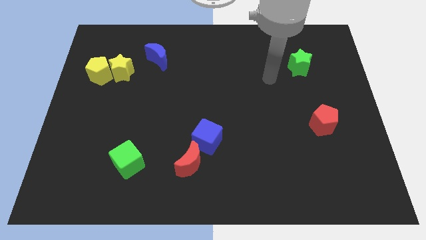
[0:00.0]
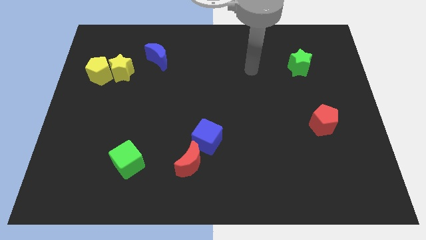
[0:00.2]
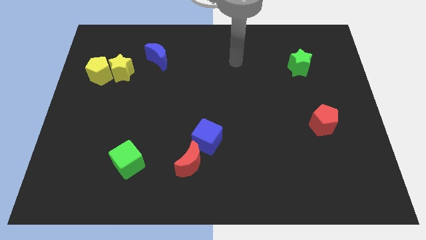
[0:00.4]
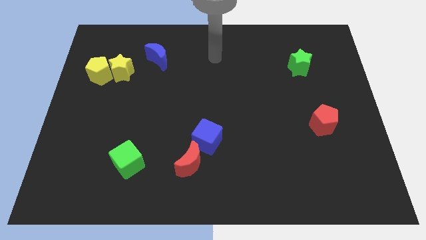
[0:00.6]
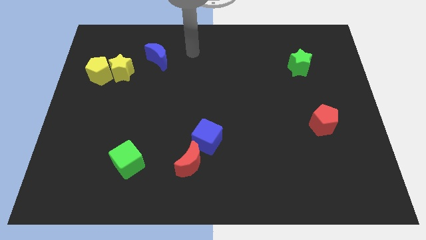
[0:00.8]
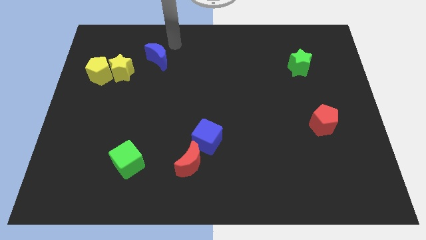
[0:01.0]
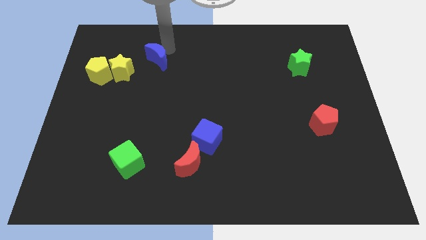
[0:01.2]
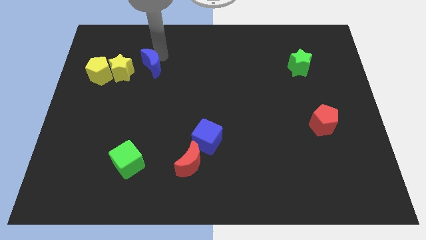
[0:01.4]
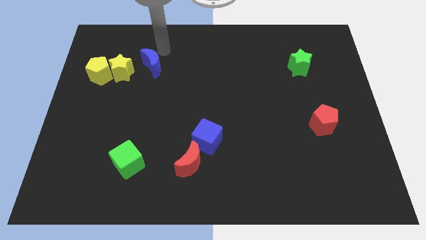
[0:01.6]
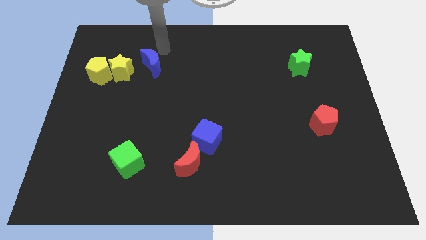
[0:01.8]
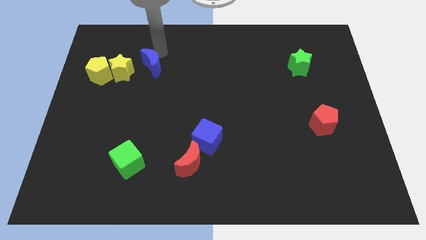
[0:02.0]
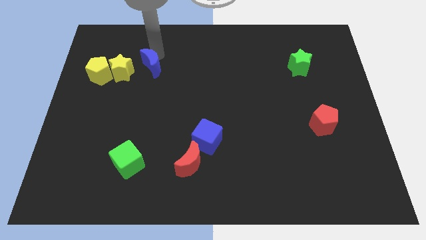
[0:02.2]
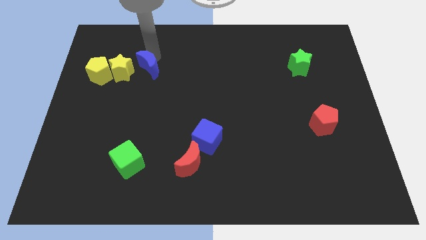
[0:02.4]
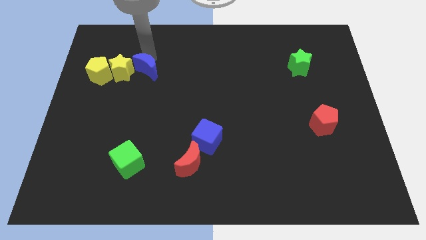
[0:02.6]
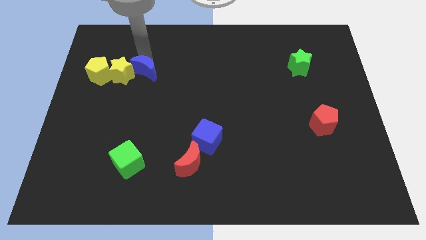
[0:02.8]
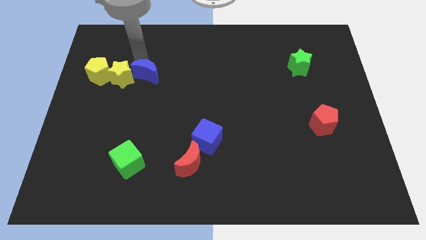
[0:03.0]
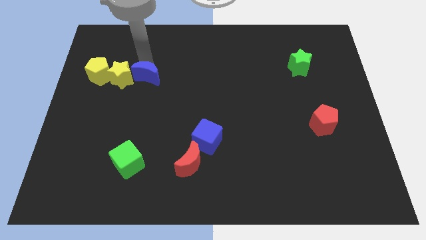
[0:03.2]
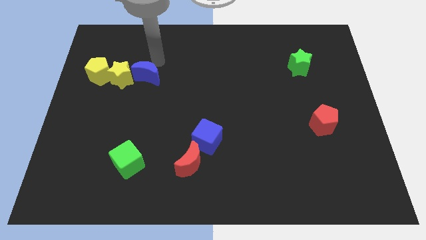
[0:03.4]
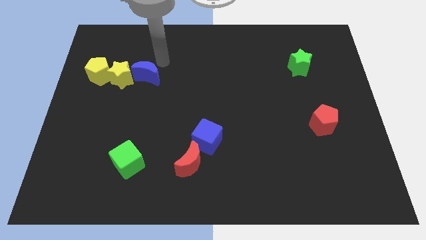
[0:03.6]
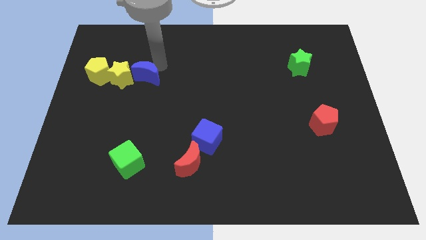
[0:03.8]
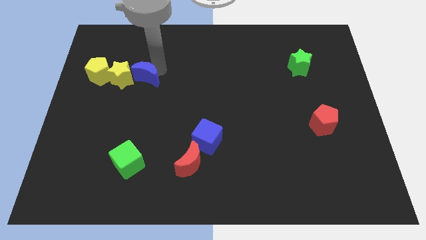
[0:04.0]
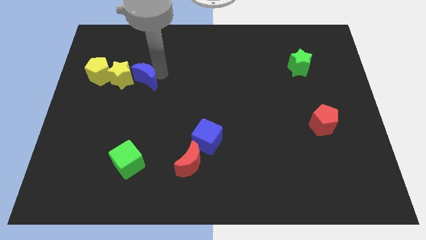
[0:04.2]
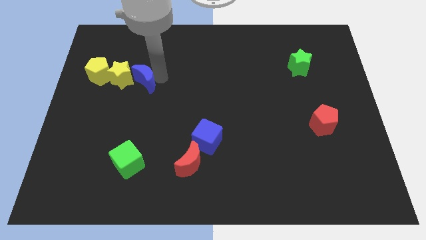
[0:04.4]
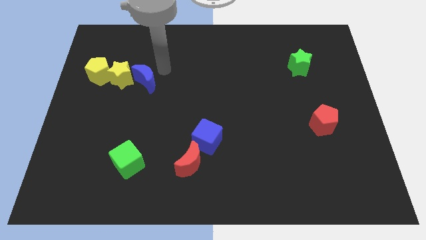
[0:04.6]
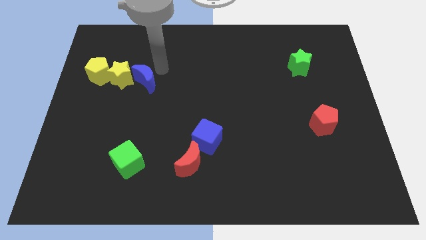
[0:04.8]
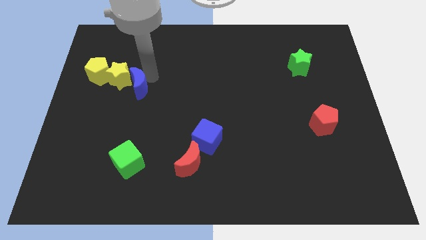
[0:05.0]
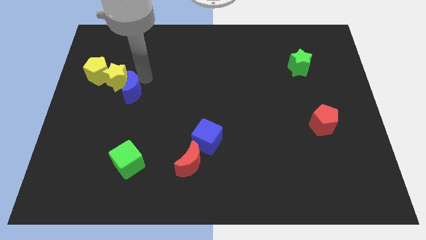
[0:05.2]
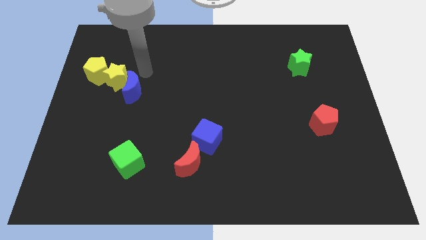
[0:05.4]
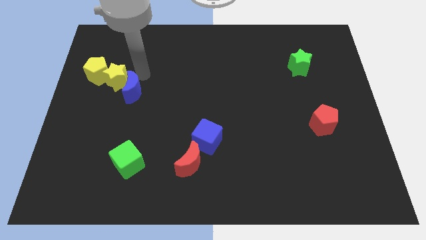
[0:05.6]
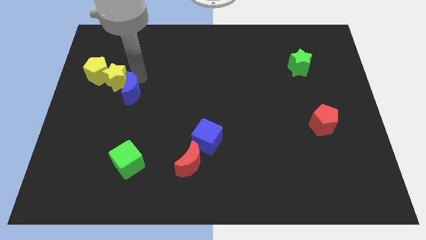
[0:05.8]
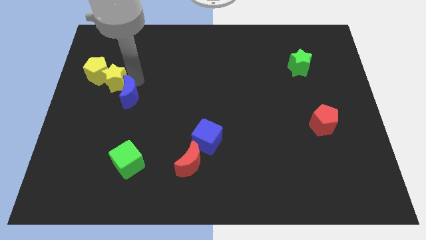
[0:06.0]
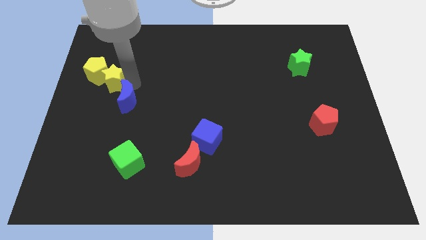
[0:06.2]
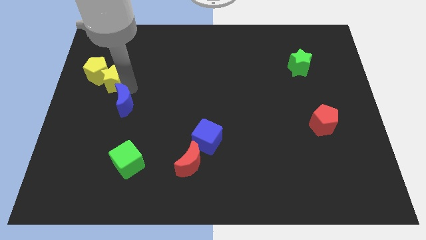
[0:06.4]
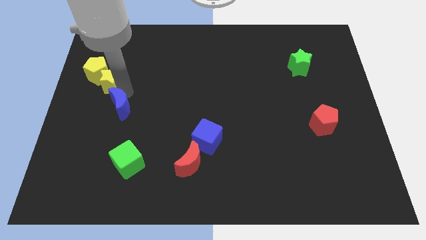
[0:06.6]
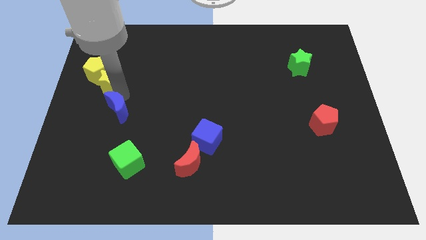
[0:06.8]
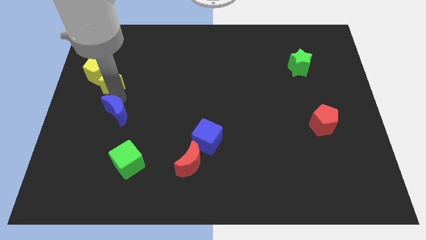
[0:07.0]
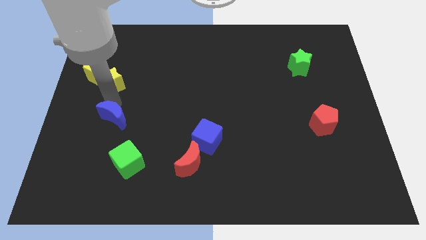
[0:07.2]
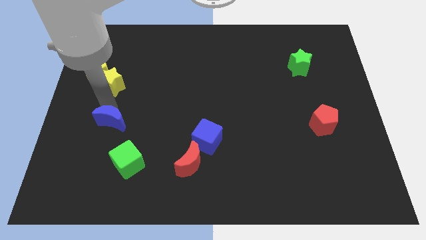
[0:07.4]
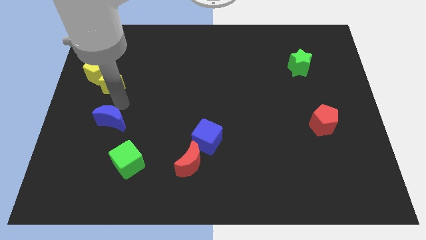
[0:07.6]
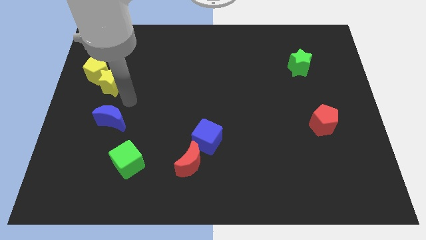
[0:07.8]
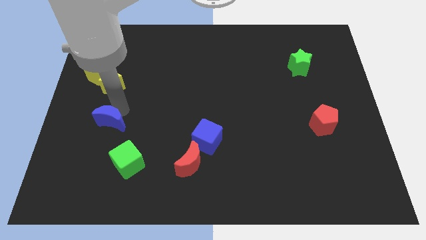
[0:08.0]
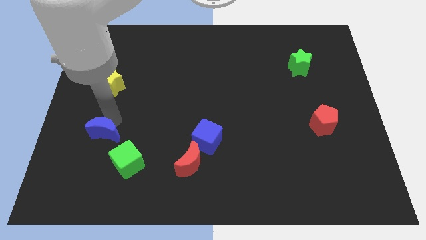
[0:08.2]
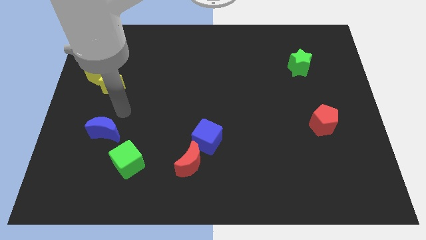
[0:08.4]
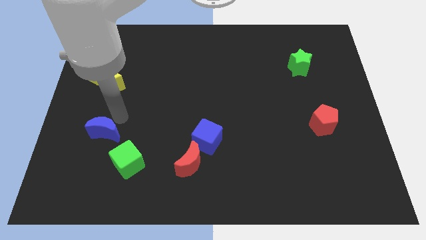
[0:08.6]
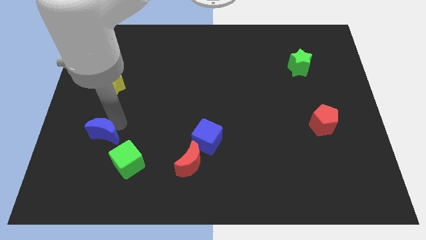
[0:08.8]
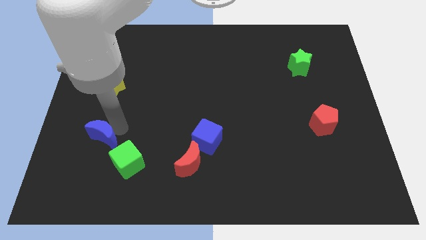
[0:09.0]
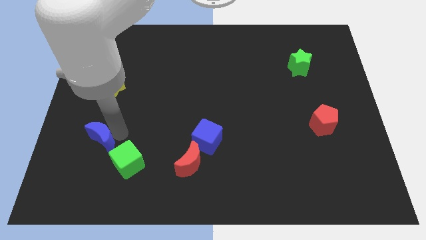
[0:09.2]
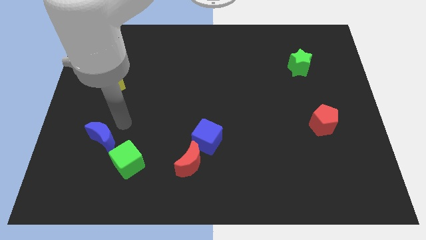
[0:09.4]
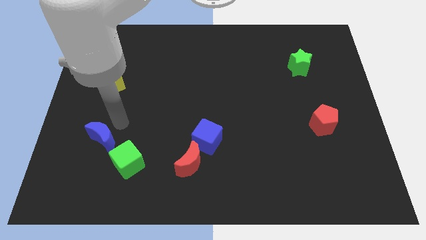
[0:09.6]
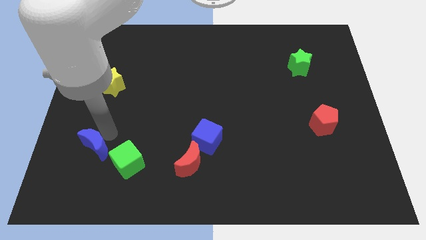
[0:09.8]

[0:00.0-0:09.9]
move the blue moon just left of the green cube

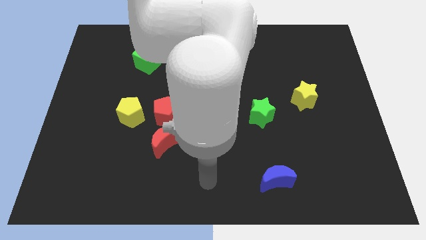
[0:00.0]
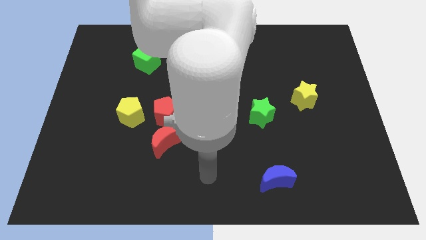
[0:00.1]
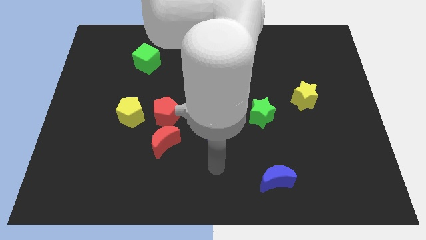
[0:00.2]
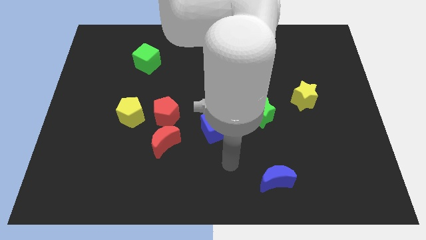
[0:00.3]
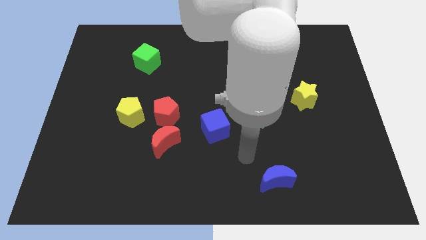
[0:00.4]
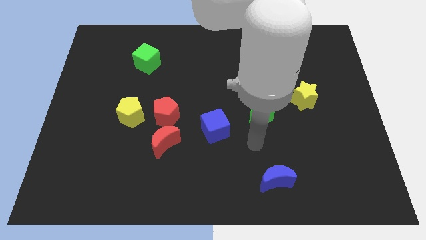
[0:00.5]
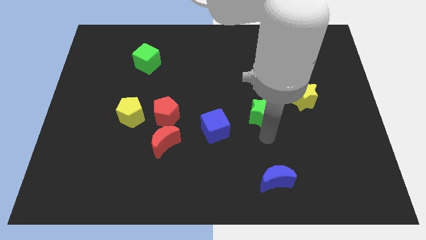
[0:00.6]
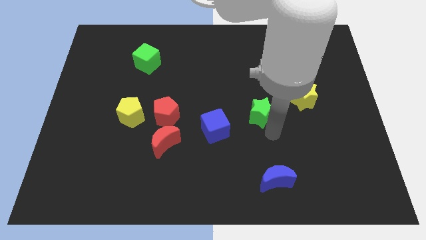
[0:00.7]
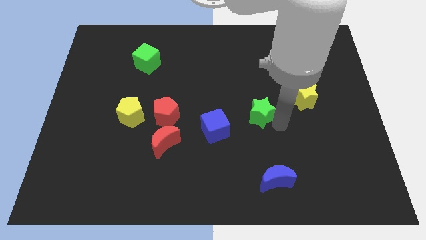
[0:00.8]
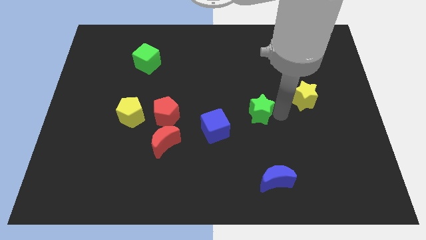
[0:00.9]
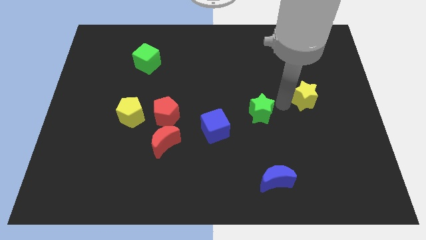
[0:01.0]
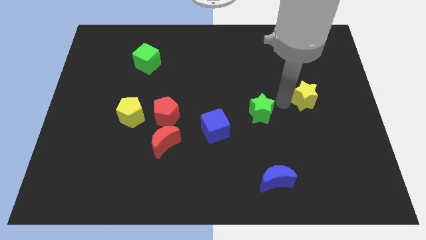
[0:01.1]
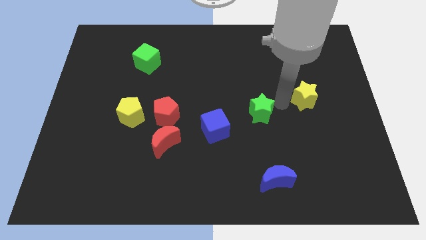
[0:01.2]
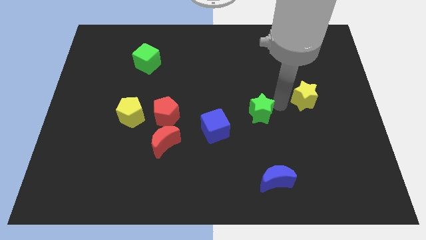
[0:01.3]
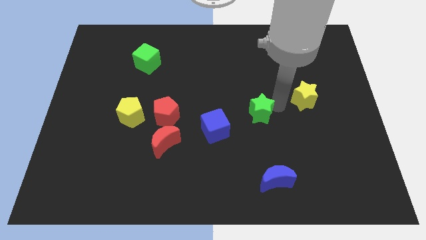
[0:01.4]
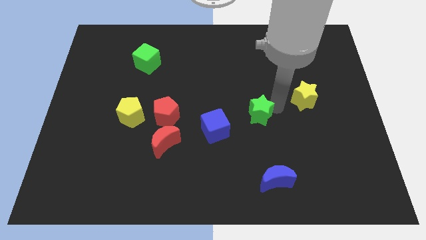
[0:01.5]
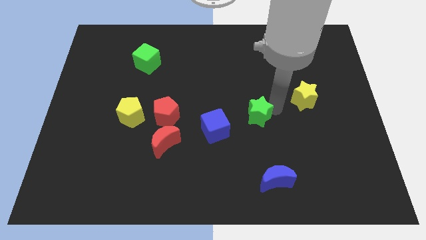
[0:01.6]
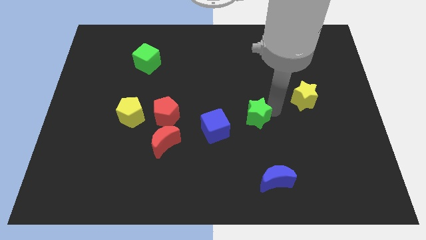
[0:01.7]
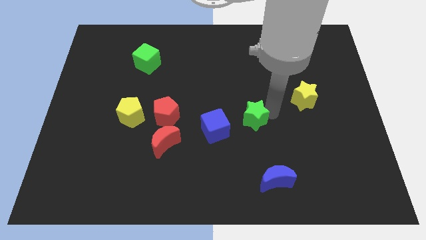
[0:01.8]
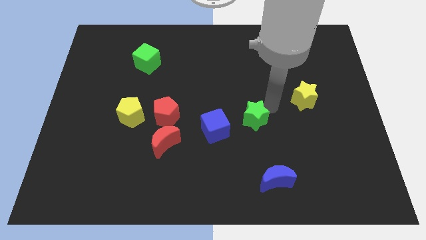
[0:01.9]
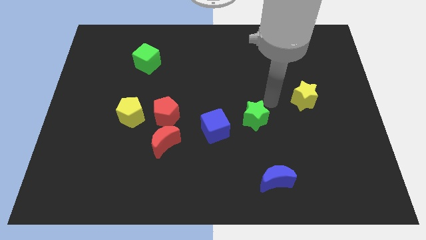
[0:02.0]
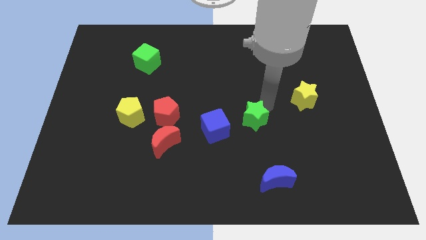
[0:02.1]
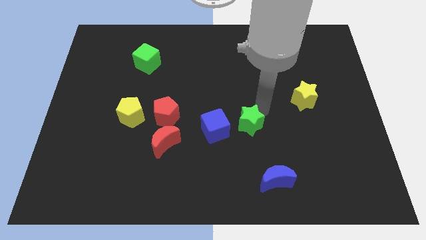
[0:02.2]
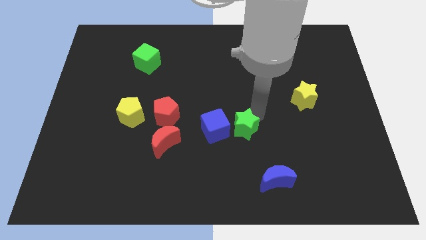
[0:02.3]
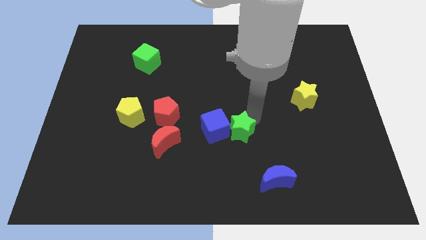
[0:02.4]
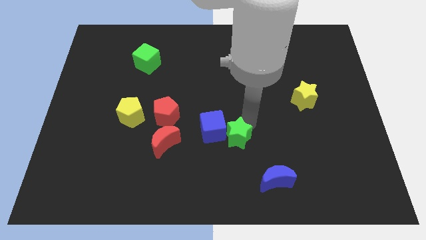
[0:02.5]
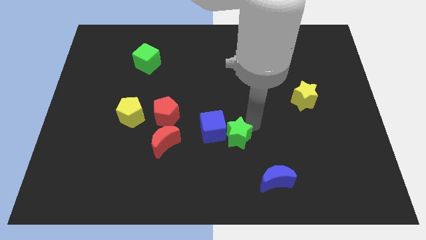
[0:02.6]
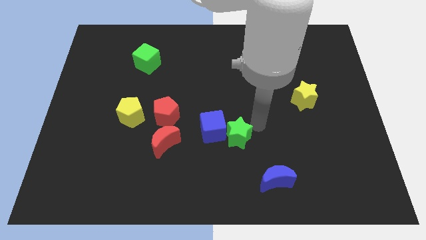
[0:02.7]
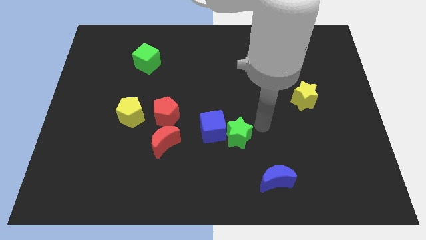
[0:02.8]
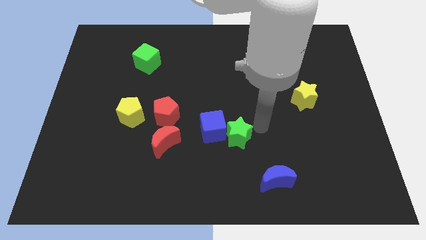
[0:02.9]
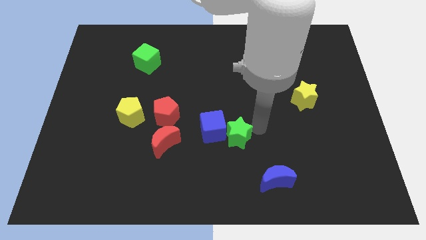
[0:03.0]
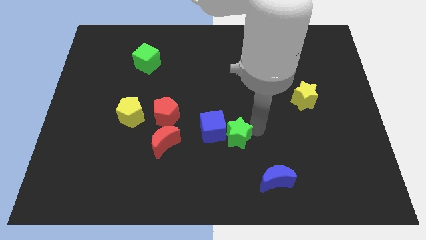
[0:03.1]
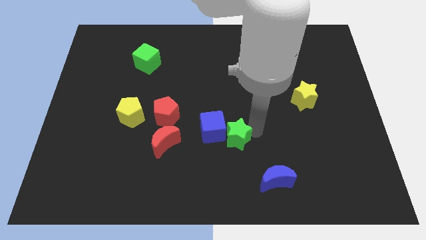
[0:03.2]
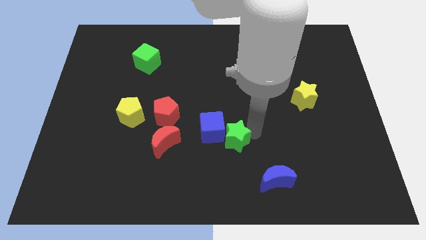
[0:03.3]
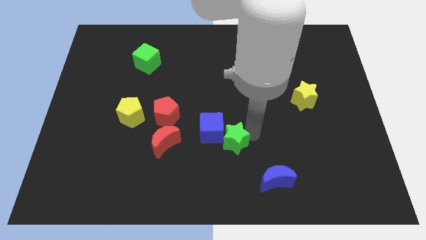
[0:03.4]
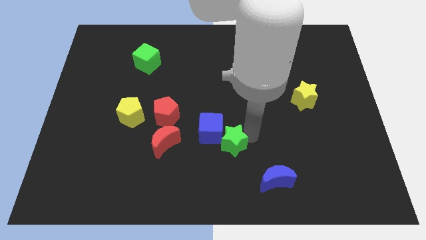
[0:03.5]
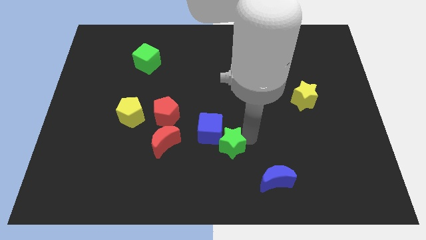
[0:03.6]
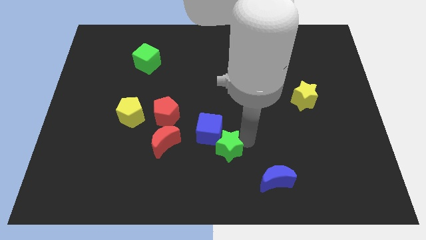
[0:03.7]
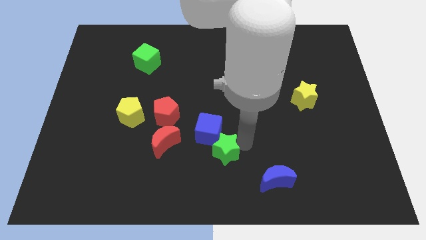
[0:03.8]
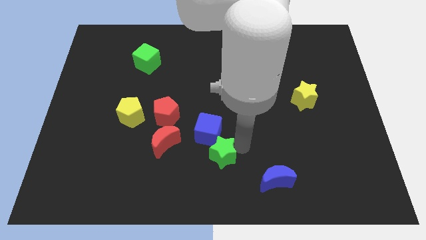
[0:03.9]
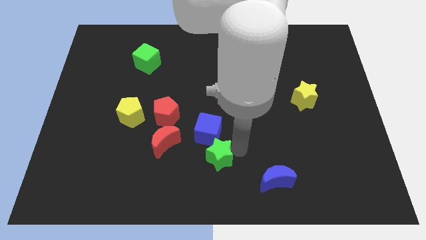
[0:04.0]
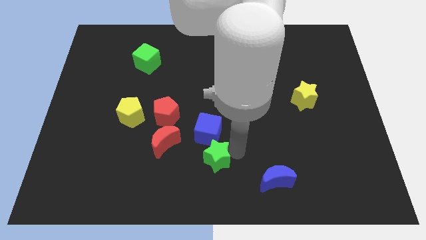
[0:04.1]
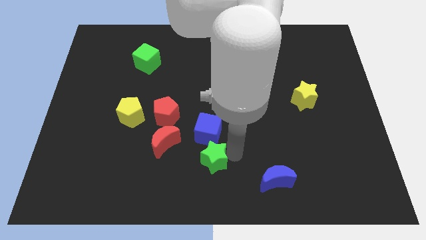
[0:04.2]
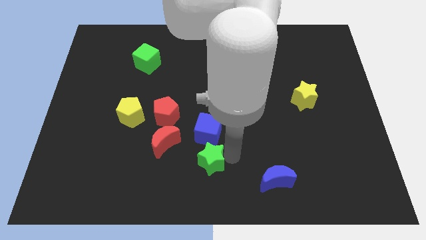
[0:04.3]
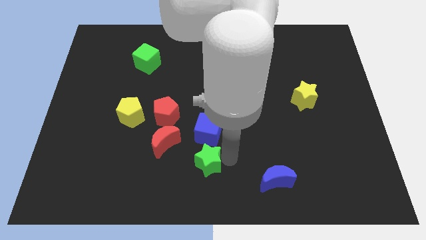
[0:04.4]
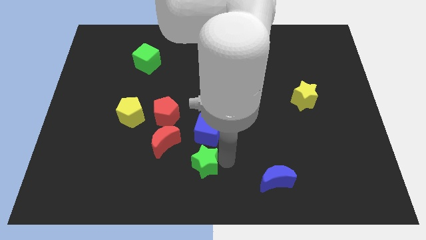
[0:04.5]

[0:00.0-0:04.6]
push the green star to the bottom left side of the blue cube
